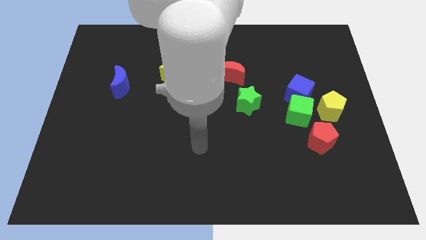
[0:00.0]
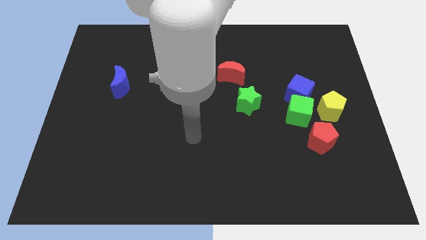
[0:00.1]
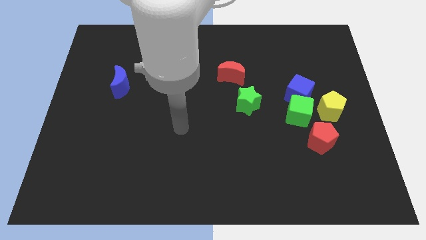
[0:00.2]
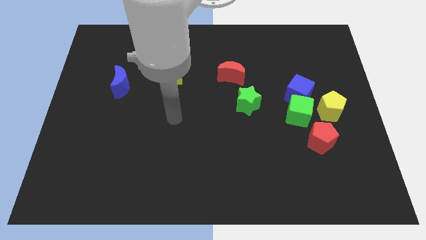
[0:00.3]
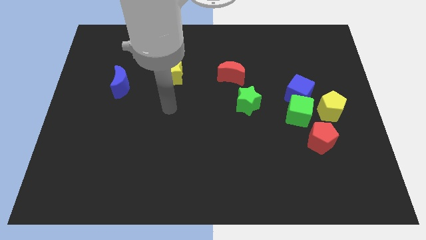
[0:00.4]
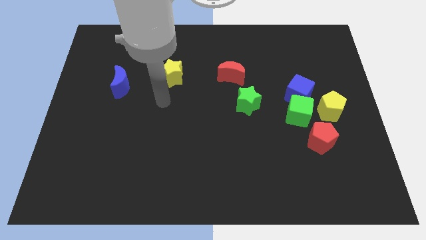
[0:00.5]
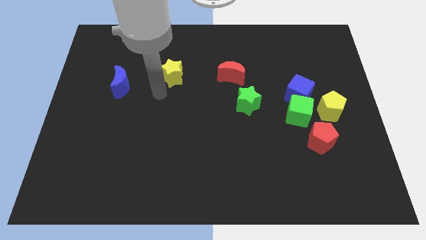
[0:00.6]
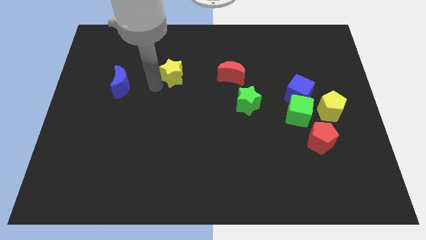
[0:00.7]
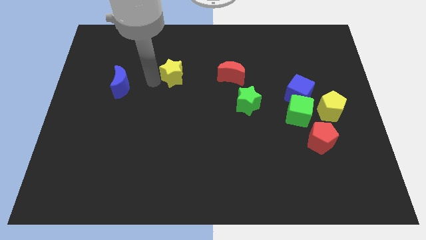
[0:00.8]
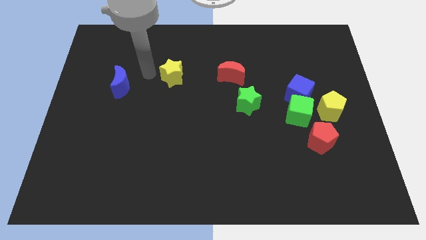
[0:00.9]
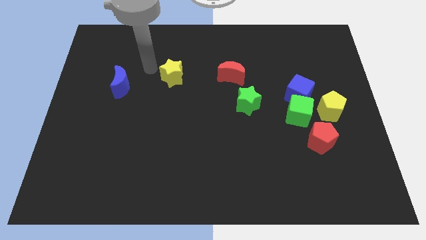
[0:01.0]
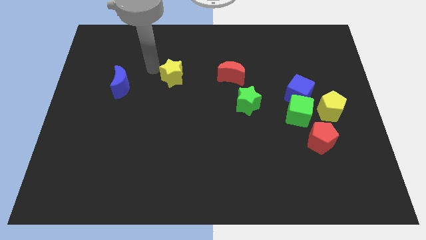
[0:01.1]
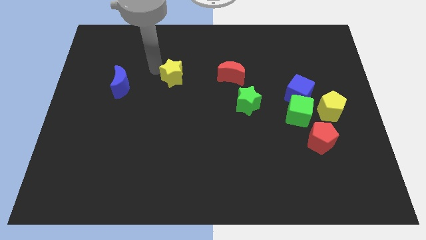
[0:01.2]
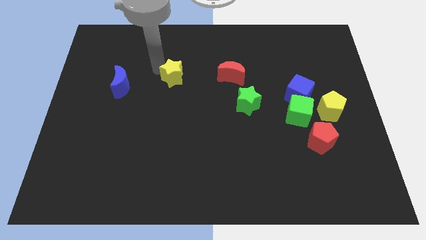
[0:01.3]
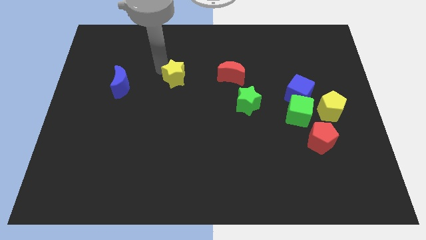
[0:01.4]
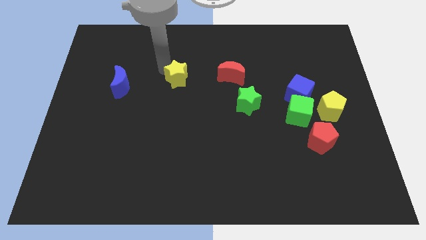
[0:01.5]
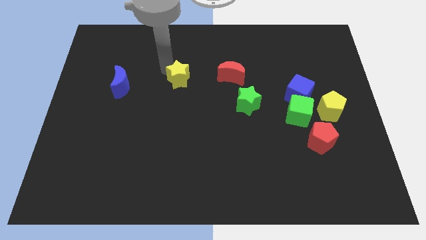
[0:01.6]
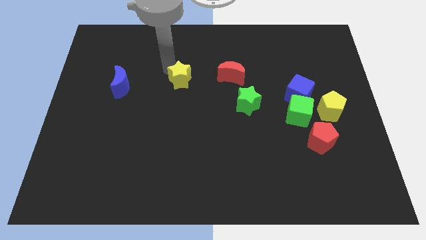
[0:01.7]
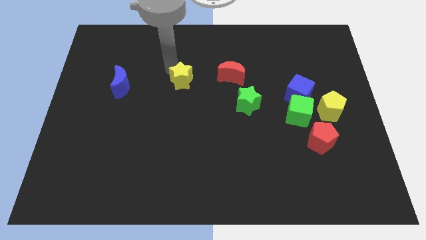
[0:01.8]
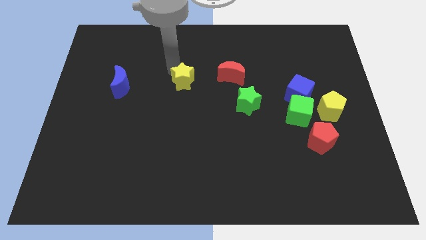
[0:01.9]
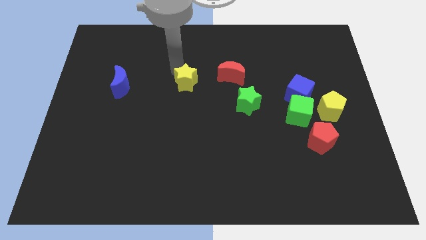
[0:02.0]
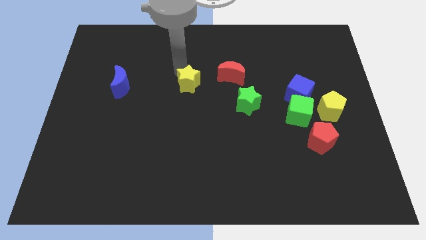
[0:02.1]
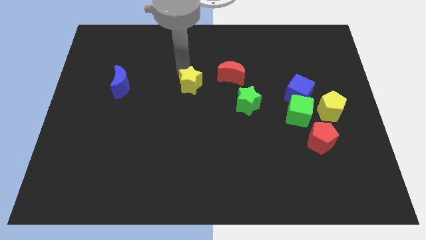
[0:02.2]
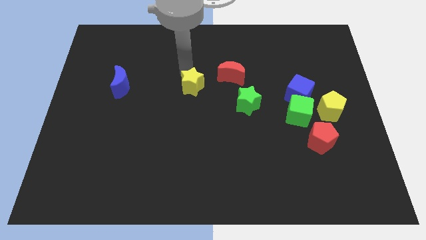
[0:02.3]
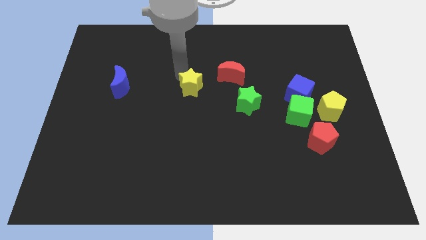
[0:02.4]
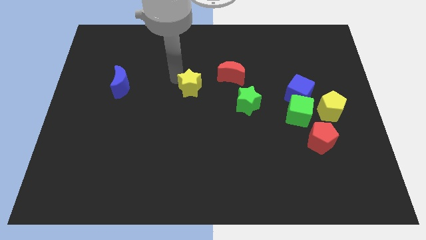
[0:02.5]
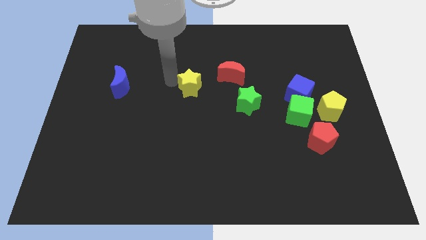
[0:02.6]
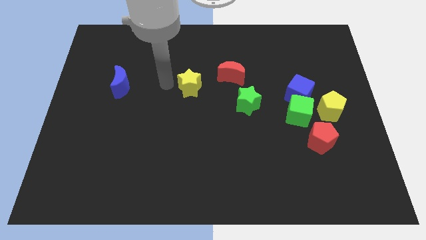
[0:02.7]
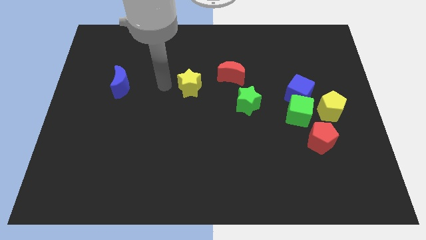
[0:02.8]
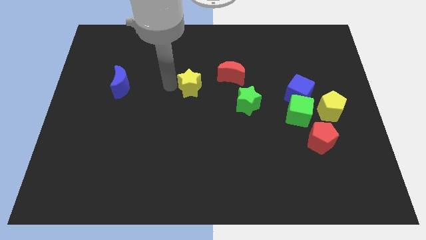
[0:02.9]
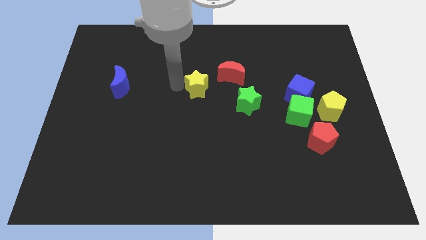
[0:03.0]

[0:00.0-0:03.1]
slide the yellow star diagonally downwards and to the right a little bit

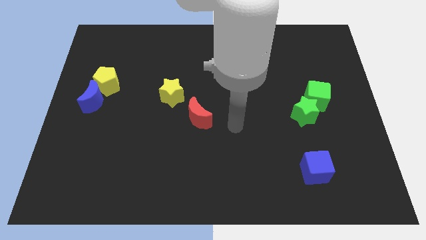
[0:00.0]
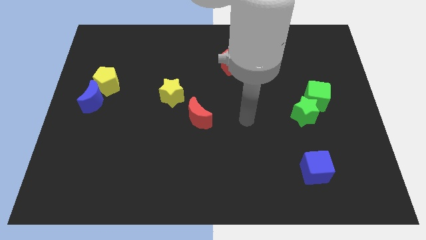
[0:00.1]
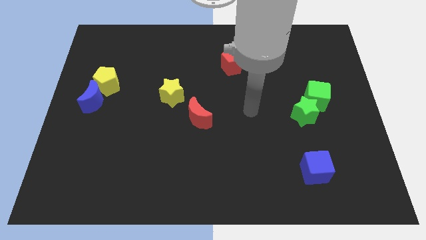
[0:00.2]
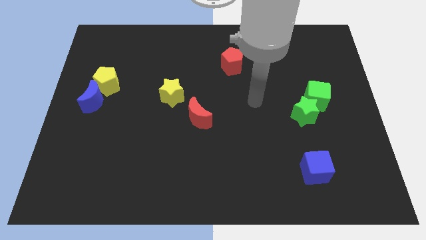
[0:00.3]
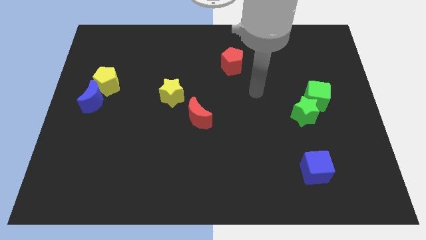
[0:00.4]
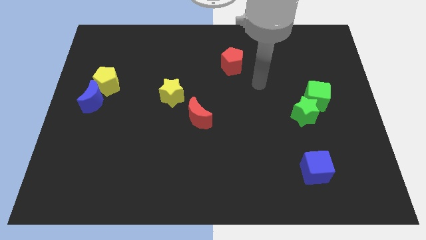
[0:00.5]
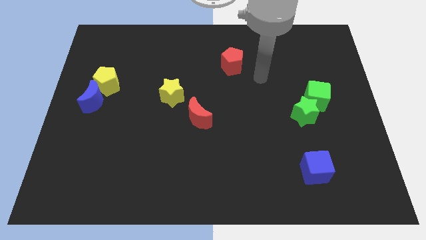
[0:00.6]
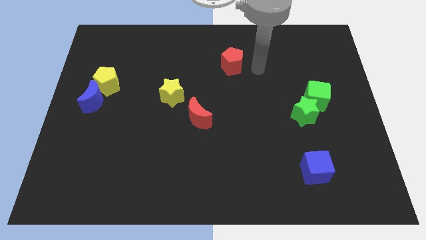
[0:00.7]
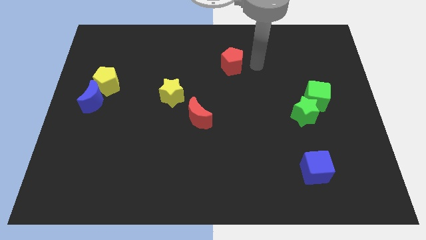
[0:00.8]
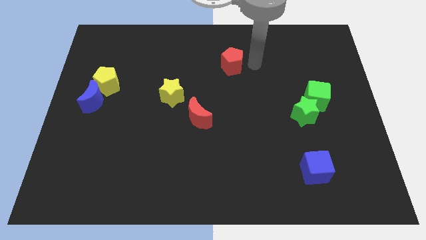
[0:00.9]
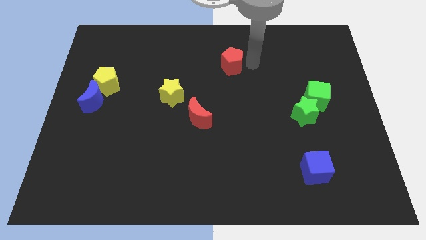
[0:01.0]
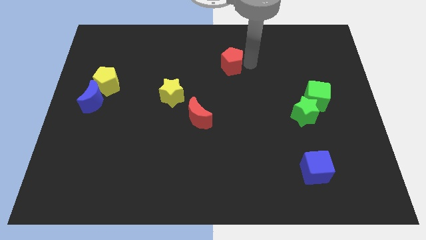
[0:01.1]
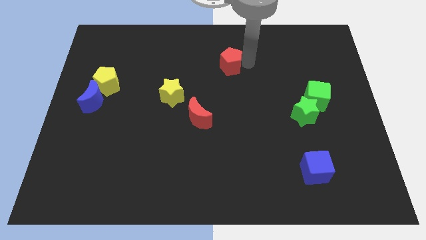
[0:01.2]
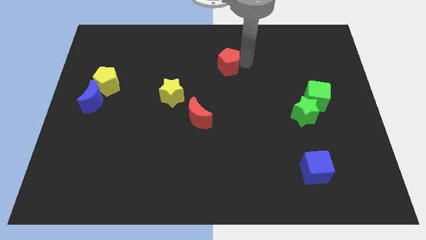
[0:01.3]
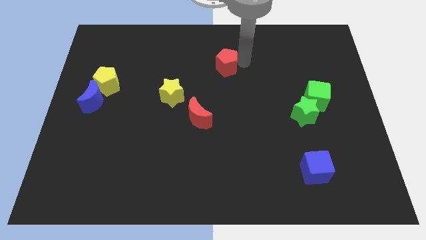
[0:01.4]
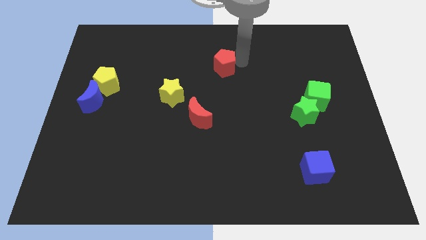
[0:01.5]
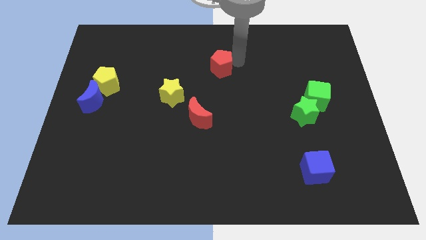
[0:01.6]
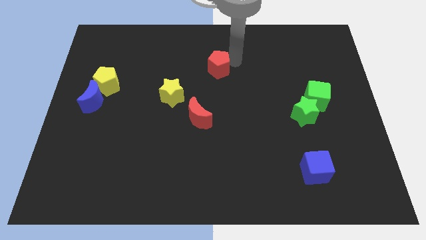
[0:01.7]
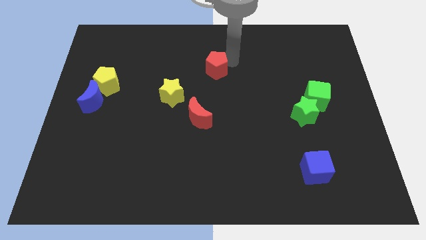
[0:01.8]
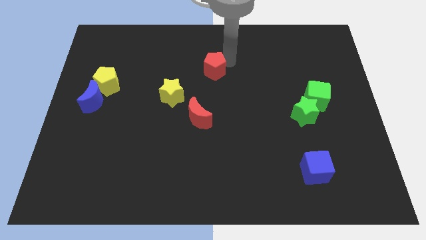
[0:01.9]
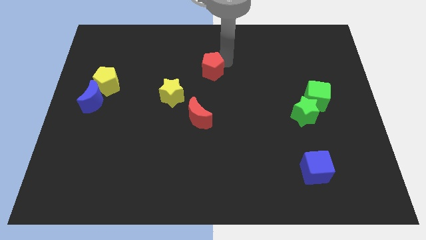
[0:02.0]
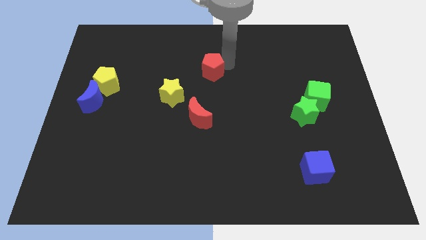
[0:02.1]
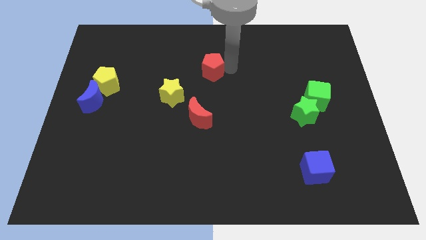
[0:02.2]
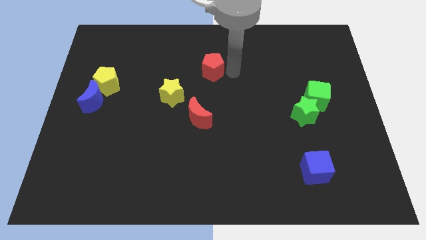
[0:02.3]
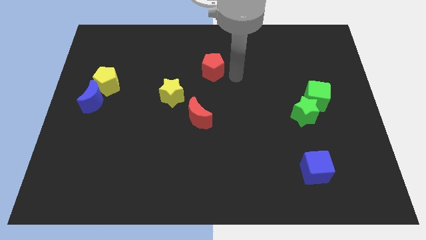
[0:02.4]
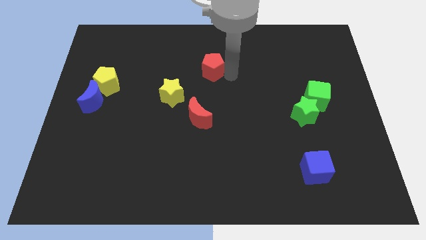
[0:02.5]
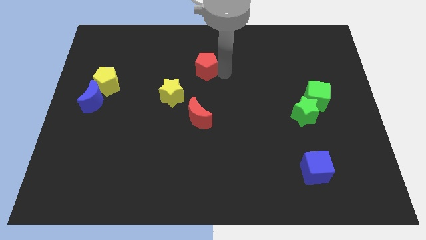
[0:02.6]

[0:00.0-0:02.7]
slightly move the red pentagon left

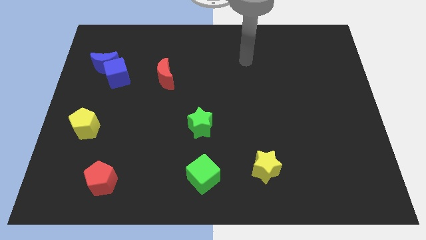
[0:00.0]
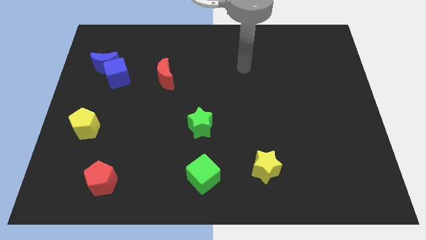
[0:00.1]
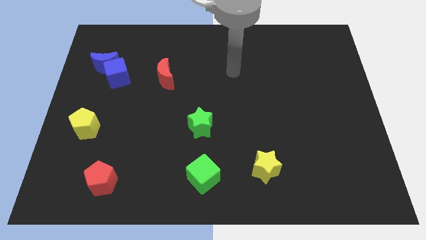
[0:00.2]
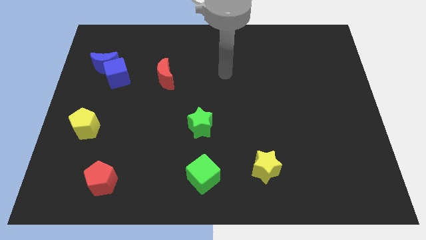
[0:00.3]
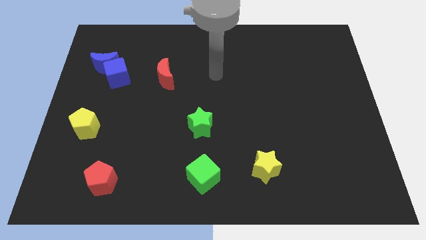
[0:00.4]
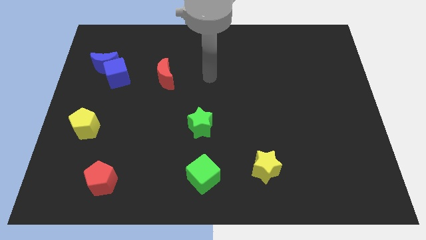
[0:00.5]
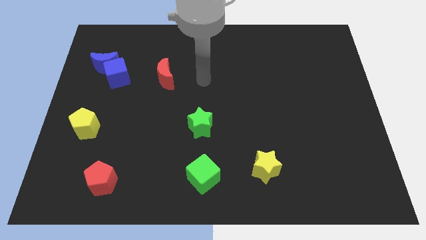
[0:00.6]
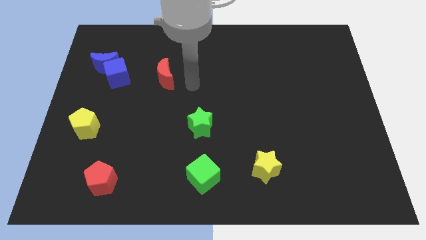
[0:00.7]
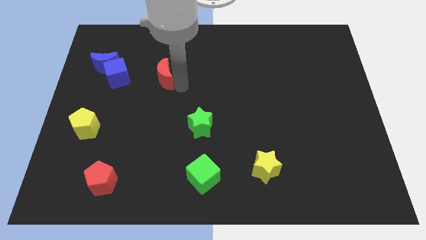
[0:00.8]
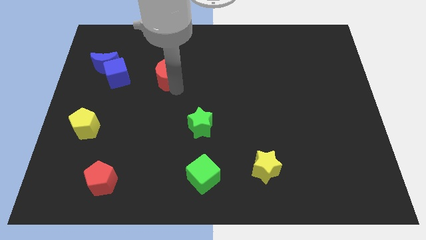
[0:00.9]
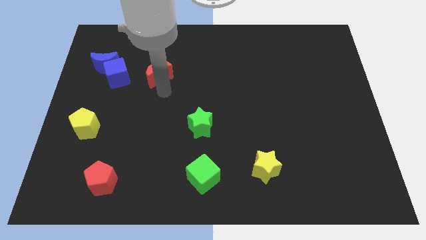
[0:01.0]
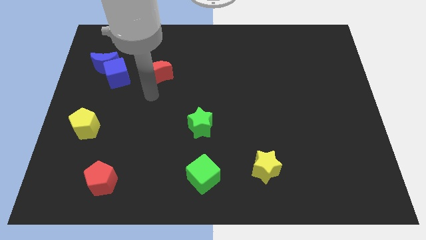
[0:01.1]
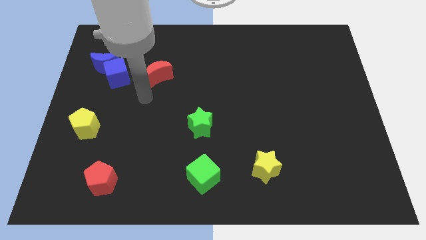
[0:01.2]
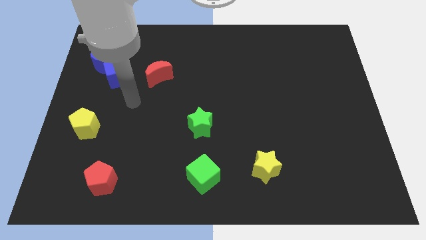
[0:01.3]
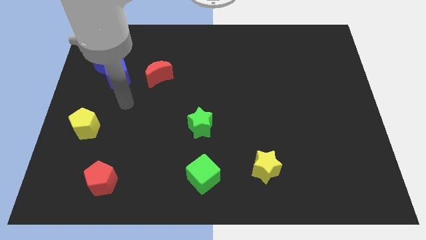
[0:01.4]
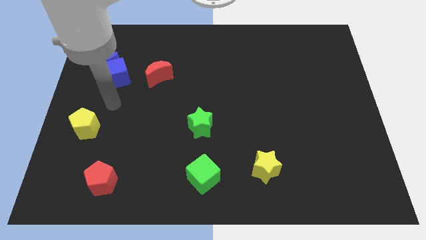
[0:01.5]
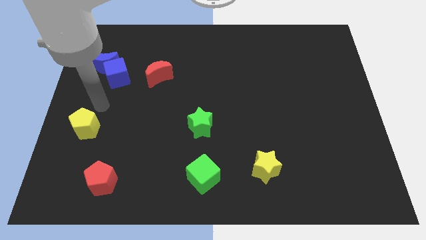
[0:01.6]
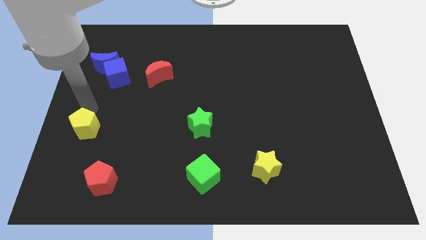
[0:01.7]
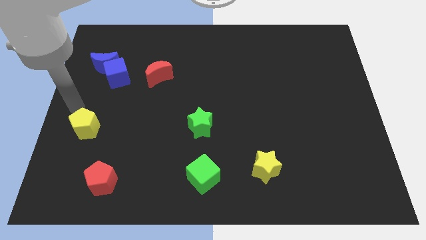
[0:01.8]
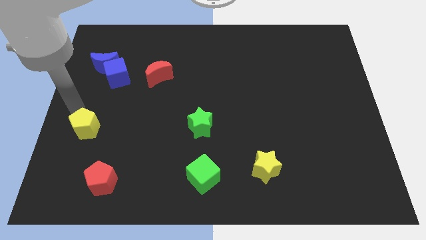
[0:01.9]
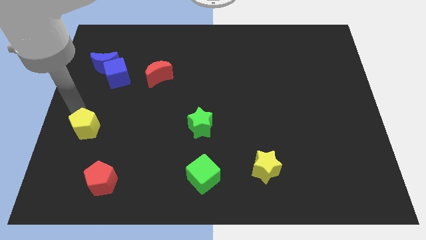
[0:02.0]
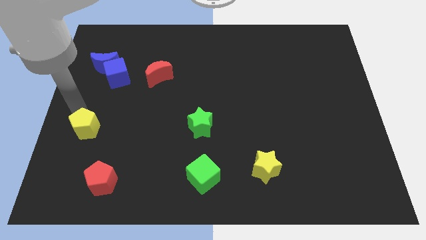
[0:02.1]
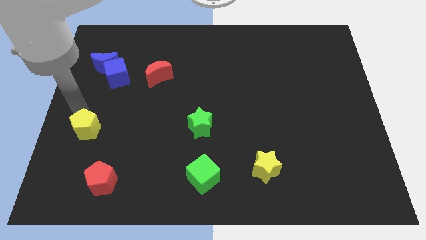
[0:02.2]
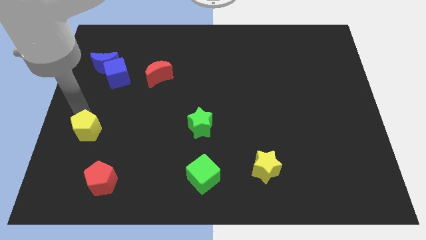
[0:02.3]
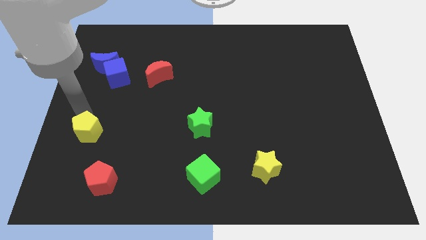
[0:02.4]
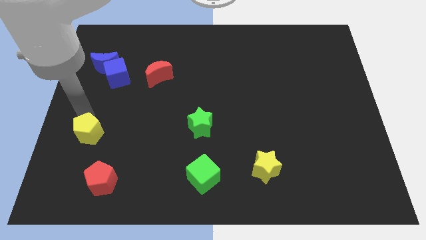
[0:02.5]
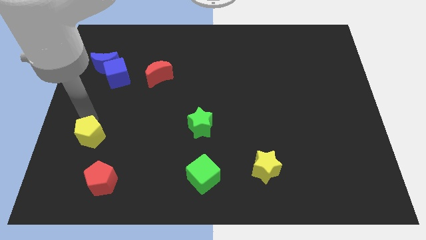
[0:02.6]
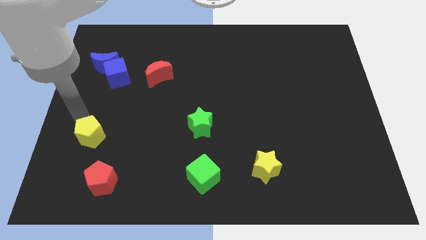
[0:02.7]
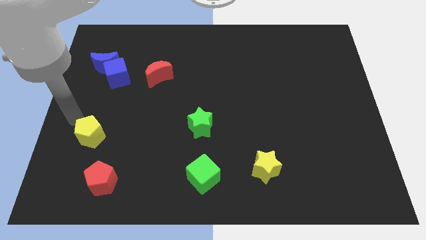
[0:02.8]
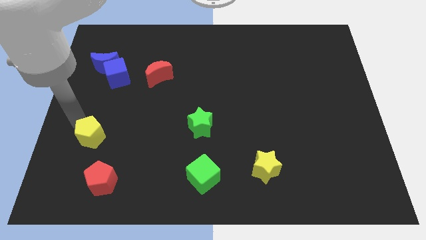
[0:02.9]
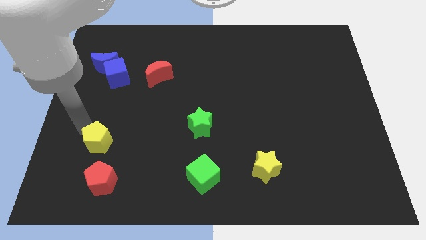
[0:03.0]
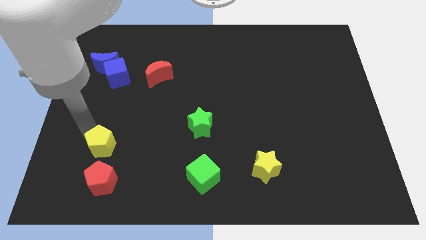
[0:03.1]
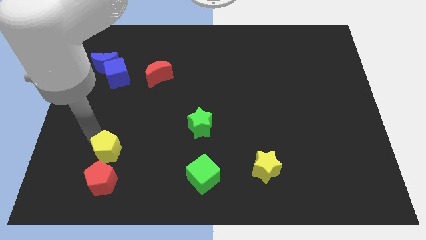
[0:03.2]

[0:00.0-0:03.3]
move the yellow pentagon a little bit down and then to the right
